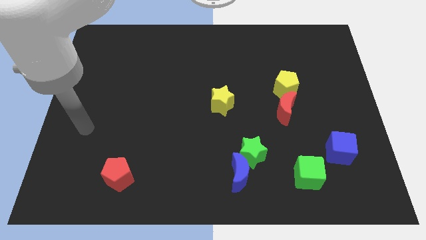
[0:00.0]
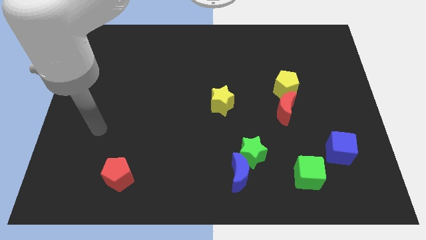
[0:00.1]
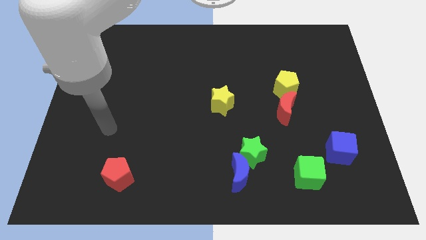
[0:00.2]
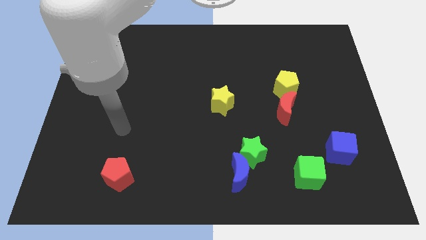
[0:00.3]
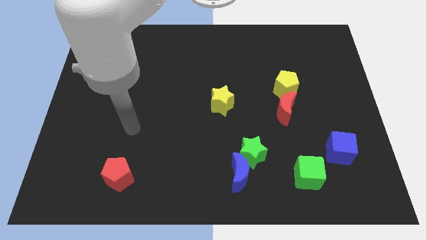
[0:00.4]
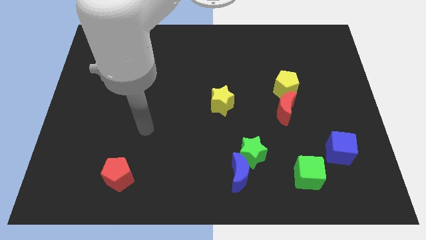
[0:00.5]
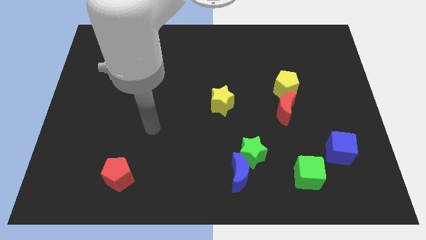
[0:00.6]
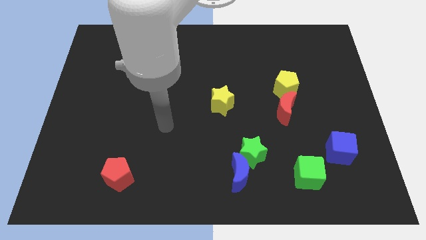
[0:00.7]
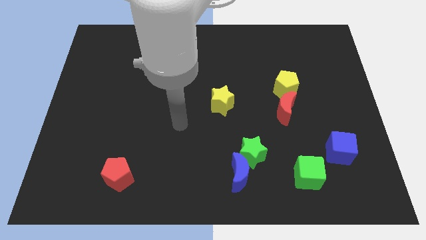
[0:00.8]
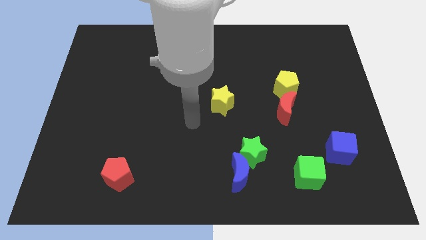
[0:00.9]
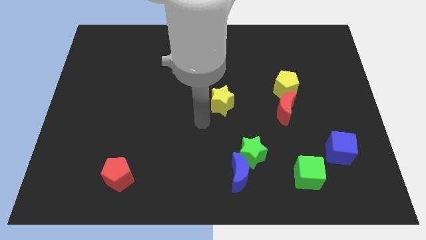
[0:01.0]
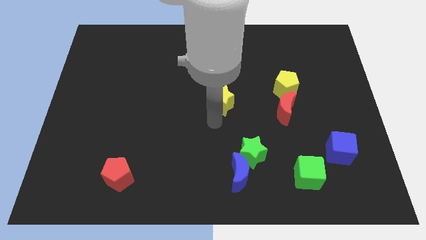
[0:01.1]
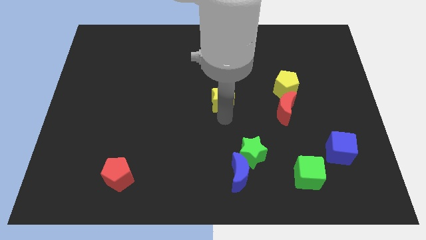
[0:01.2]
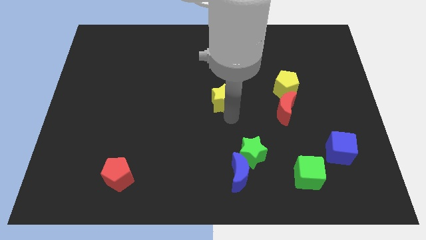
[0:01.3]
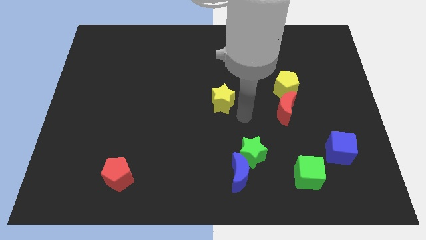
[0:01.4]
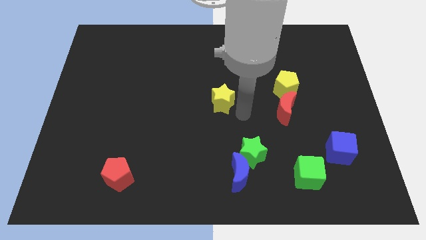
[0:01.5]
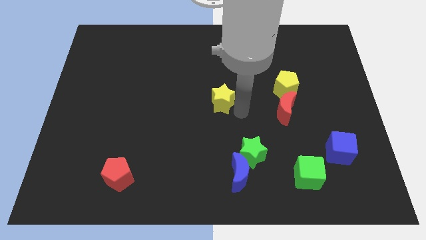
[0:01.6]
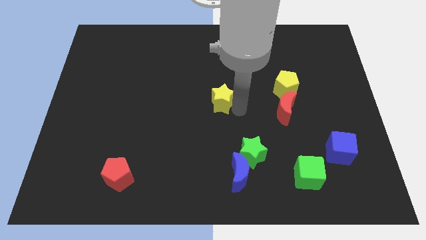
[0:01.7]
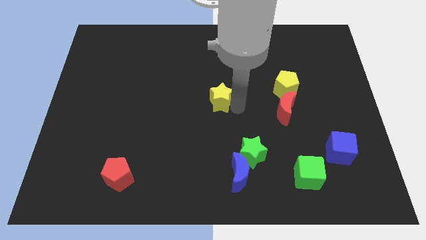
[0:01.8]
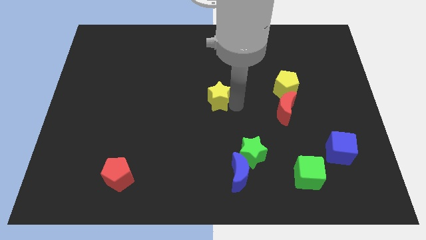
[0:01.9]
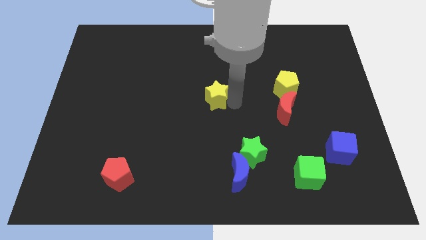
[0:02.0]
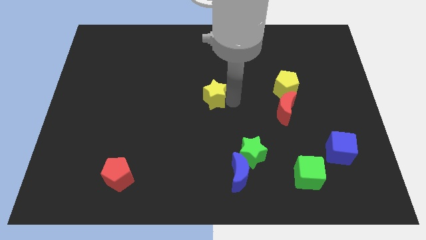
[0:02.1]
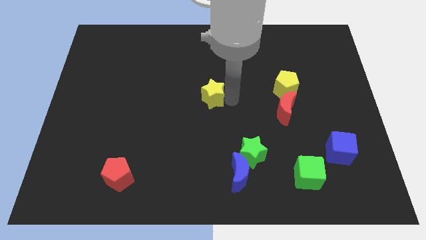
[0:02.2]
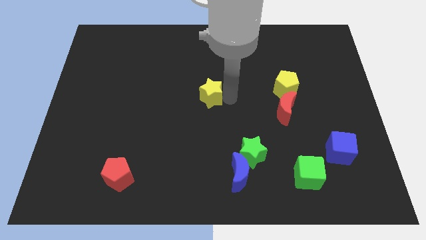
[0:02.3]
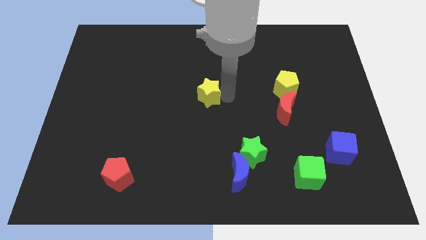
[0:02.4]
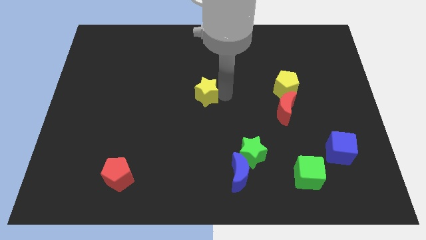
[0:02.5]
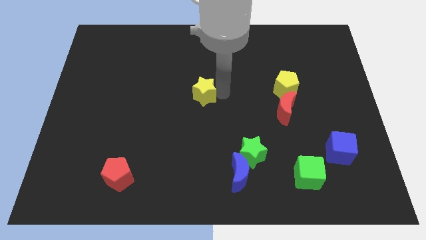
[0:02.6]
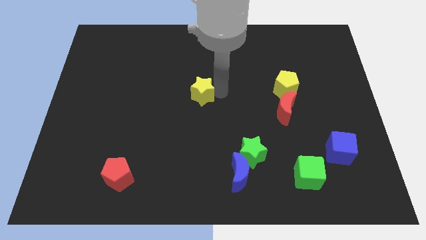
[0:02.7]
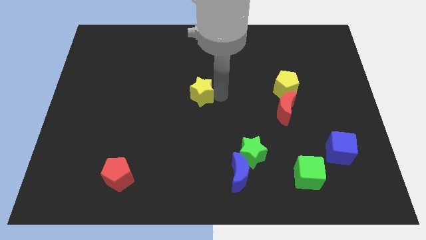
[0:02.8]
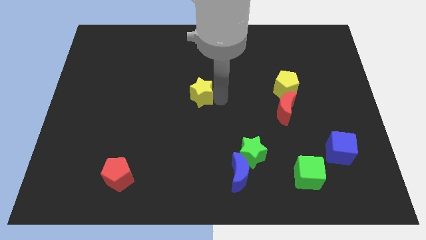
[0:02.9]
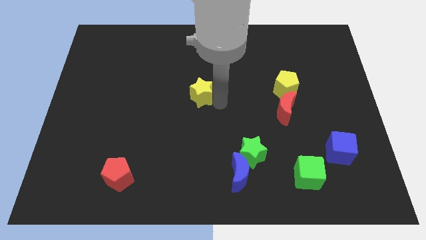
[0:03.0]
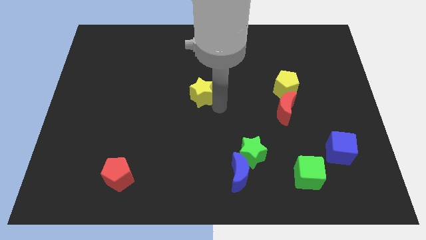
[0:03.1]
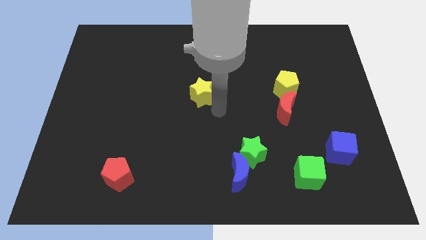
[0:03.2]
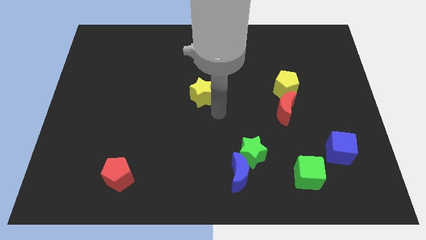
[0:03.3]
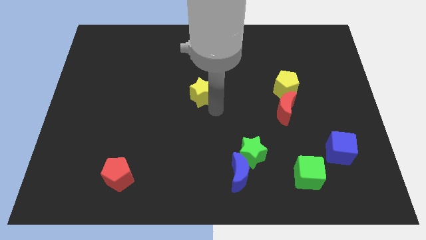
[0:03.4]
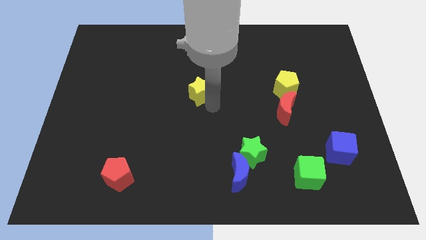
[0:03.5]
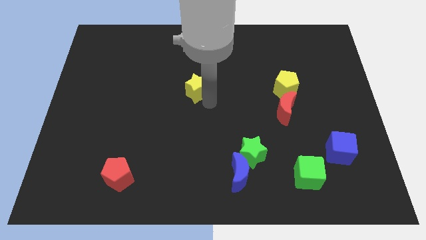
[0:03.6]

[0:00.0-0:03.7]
move the yellow star up and to the left diagonally somewhat

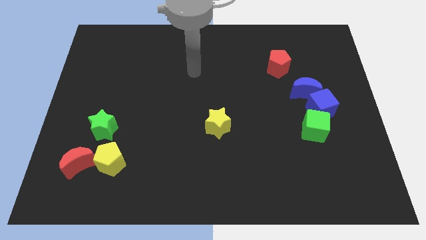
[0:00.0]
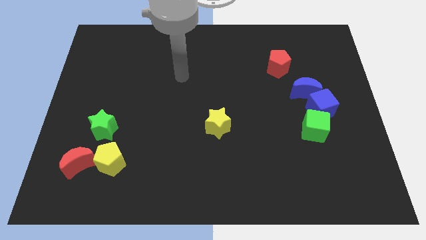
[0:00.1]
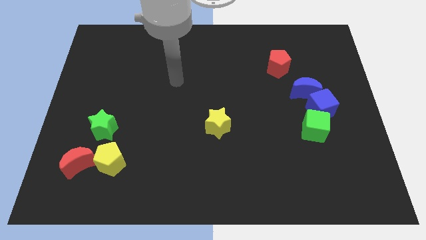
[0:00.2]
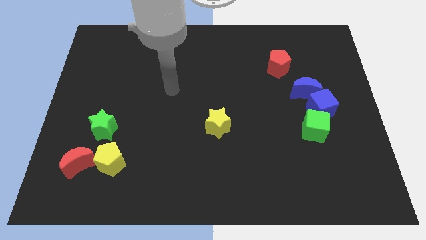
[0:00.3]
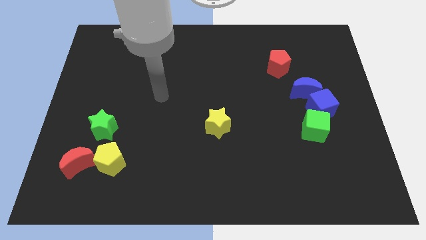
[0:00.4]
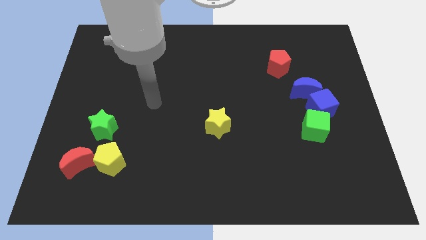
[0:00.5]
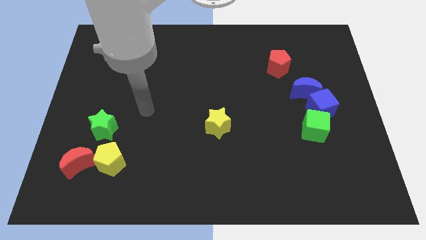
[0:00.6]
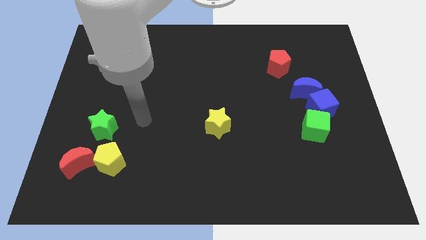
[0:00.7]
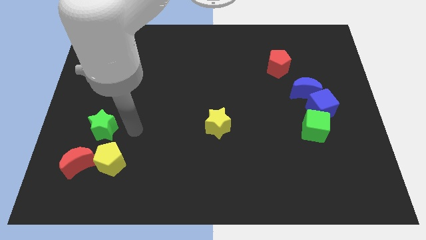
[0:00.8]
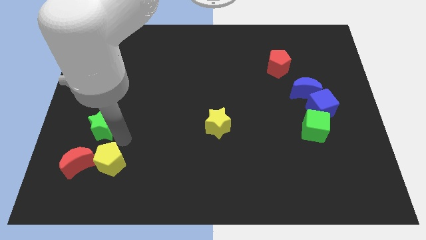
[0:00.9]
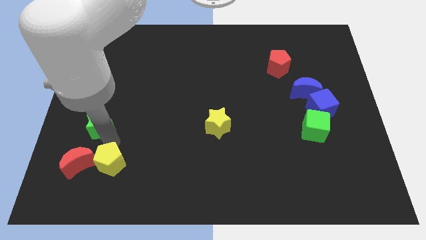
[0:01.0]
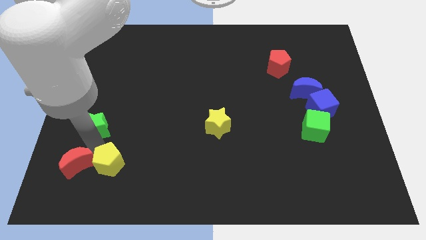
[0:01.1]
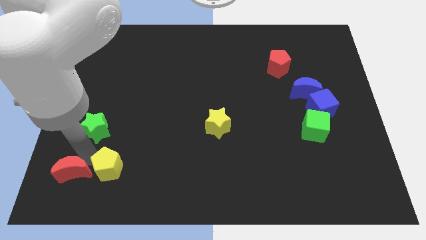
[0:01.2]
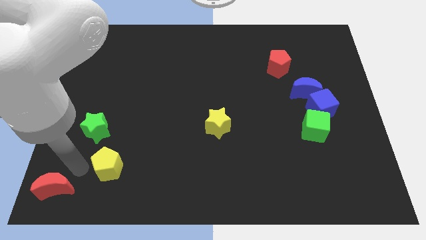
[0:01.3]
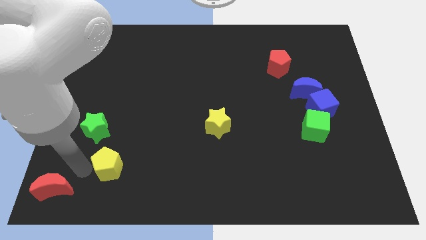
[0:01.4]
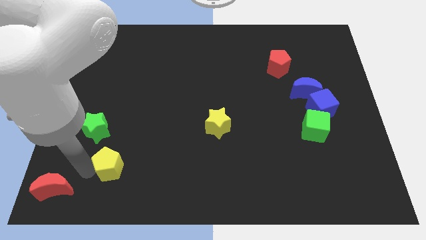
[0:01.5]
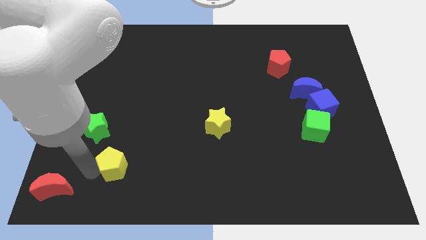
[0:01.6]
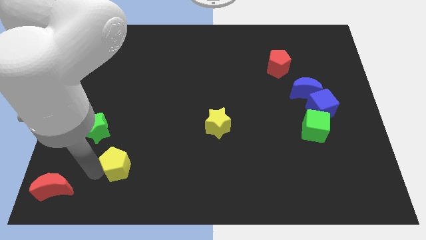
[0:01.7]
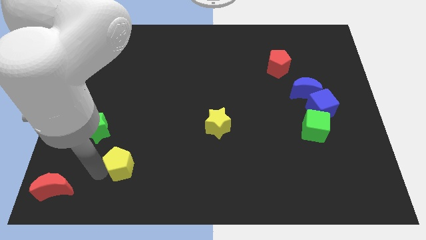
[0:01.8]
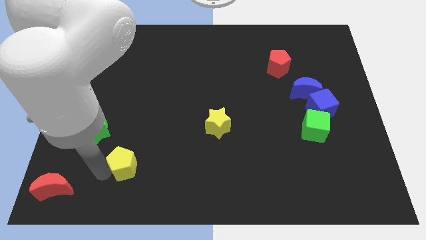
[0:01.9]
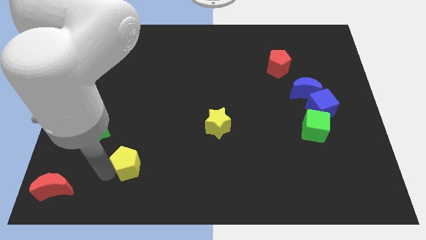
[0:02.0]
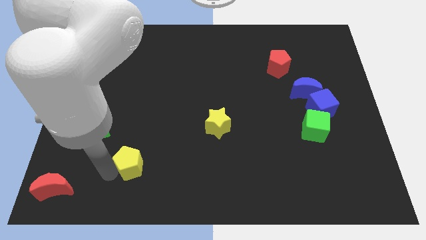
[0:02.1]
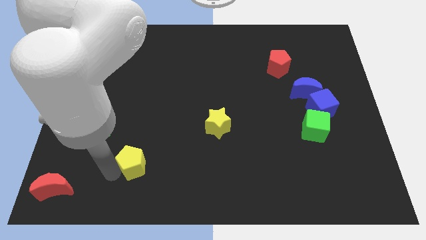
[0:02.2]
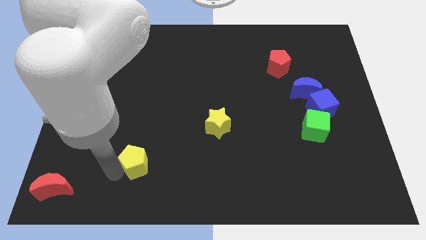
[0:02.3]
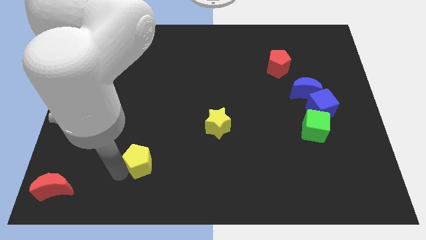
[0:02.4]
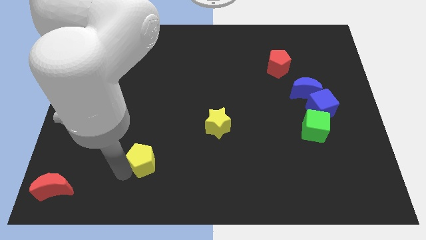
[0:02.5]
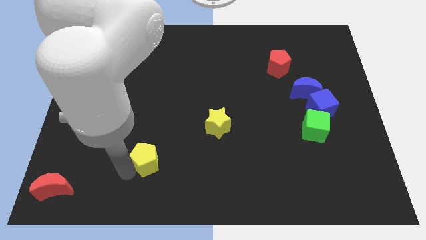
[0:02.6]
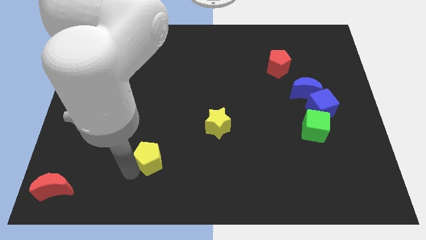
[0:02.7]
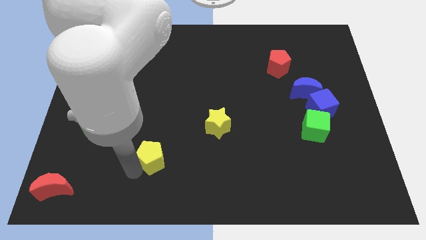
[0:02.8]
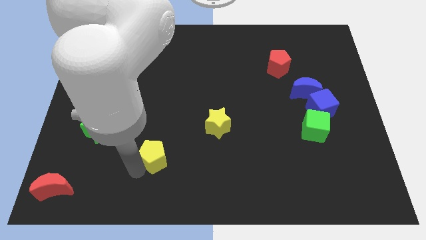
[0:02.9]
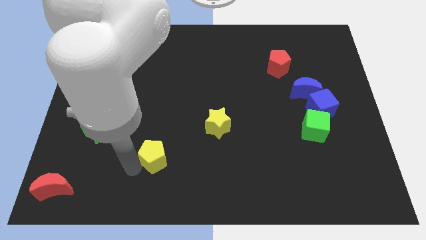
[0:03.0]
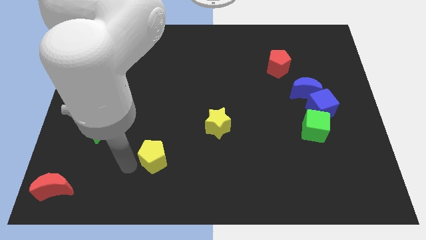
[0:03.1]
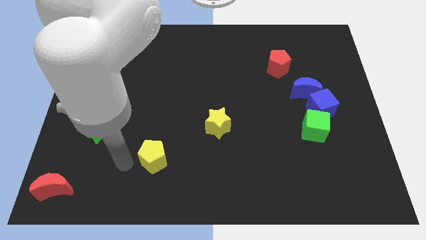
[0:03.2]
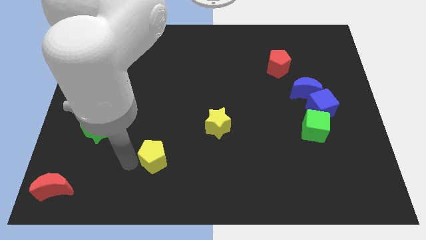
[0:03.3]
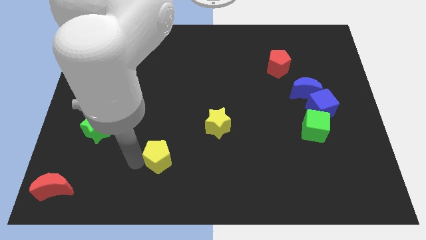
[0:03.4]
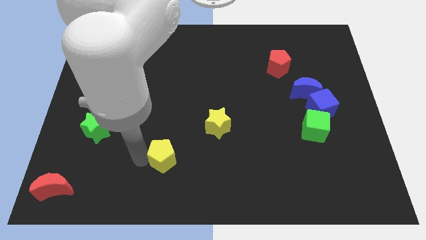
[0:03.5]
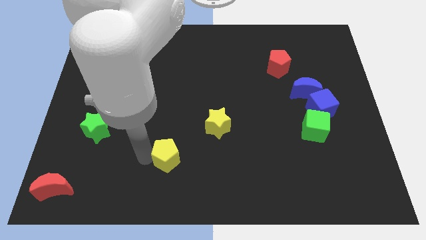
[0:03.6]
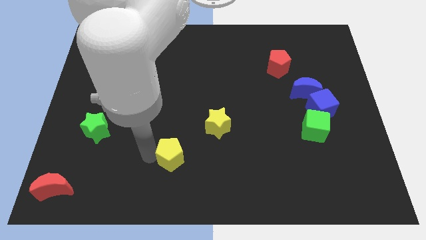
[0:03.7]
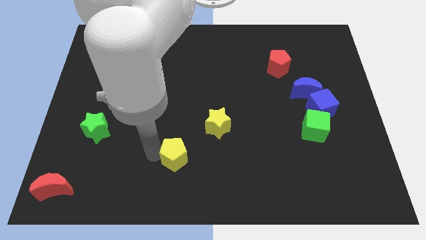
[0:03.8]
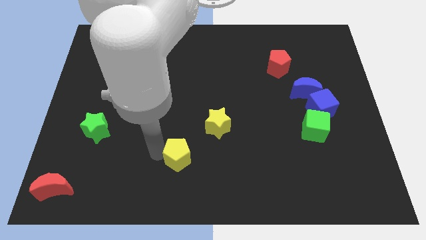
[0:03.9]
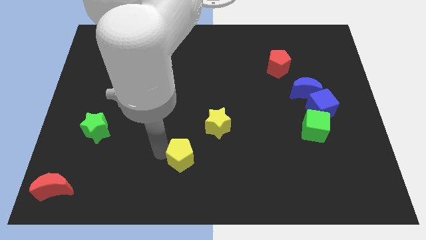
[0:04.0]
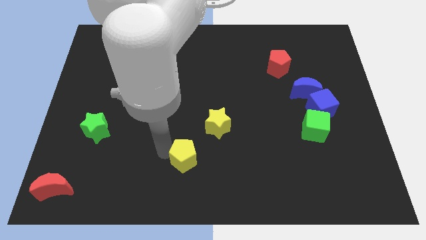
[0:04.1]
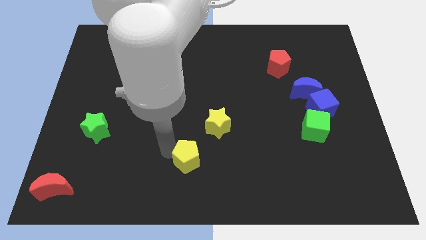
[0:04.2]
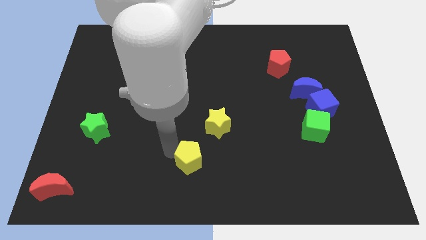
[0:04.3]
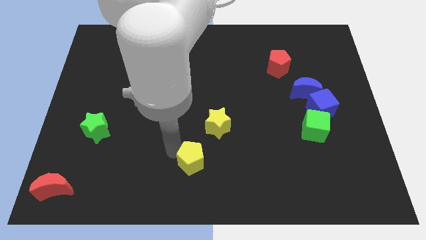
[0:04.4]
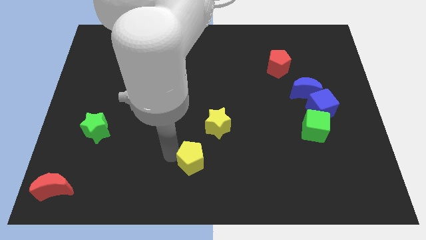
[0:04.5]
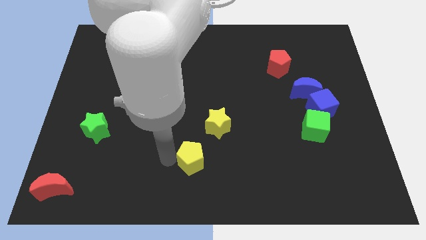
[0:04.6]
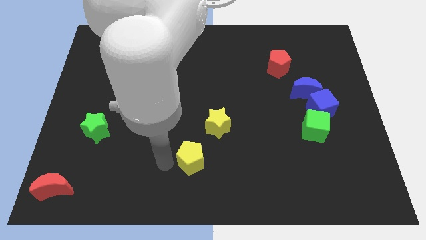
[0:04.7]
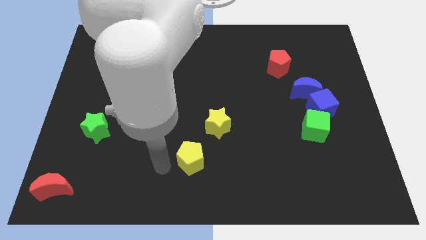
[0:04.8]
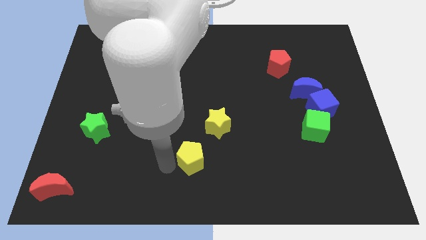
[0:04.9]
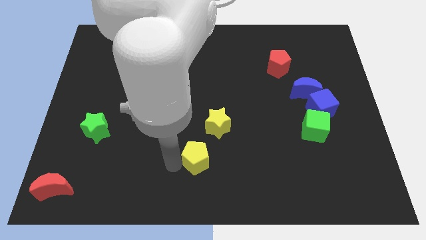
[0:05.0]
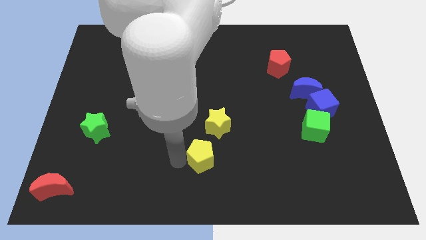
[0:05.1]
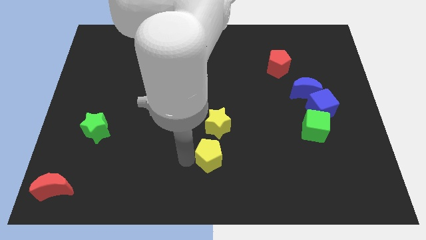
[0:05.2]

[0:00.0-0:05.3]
push the yellow pentagon to the right
